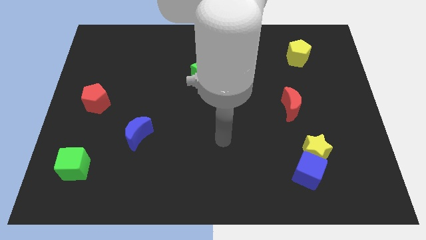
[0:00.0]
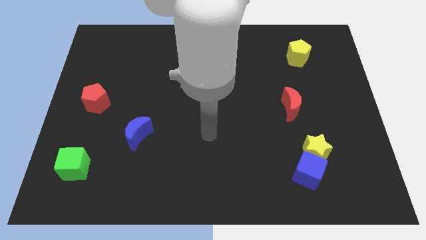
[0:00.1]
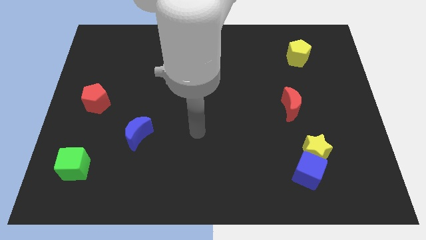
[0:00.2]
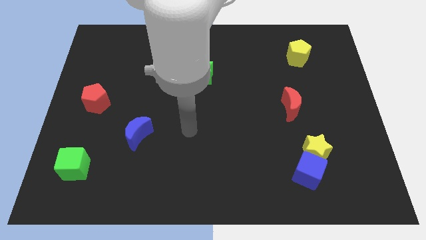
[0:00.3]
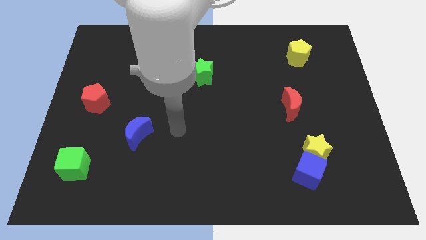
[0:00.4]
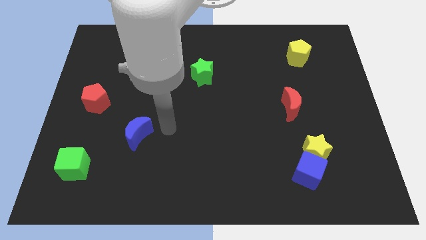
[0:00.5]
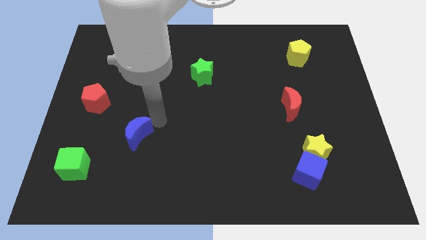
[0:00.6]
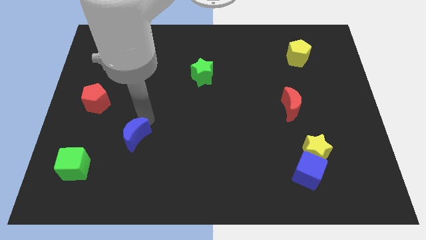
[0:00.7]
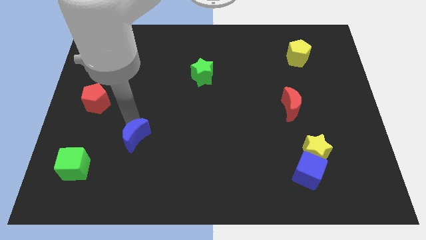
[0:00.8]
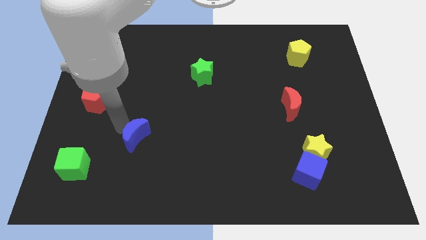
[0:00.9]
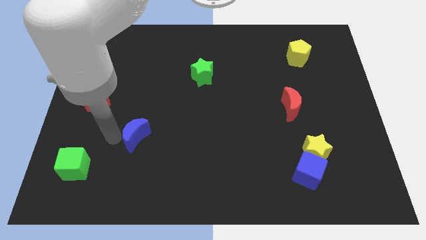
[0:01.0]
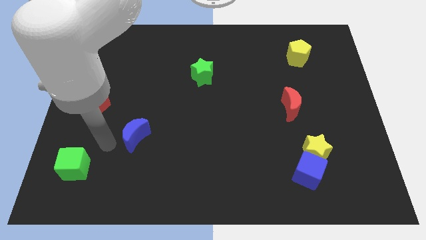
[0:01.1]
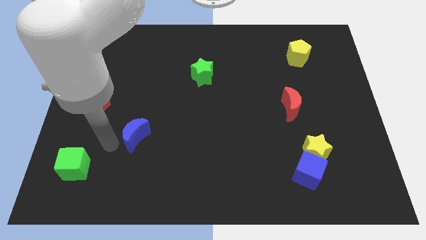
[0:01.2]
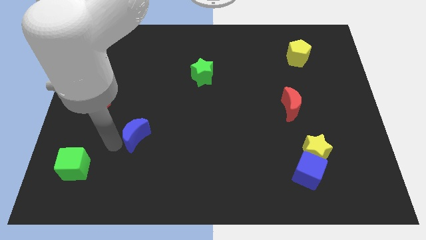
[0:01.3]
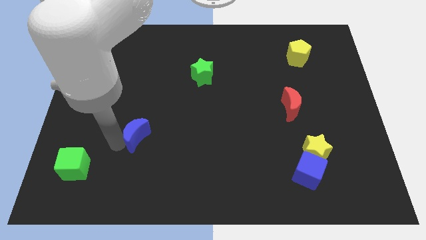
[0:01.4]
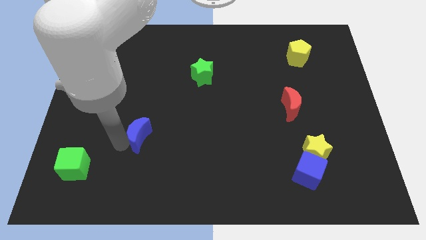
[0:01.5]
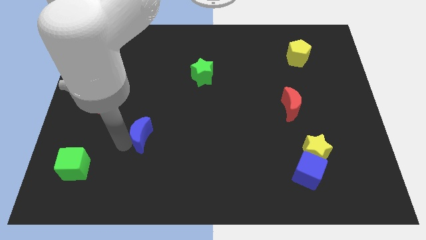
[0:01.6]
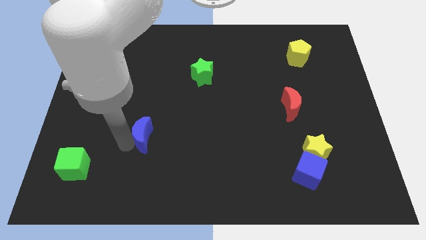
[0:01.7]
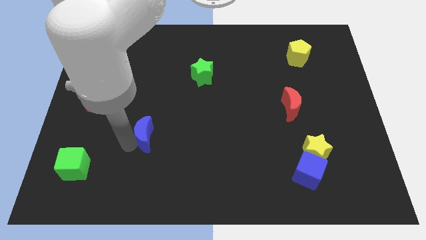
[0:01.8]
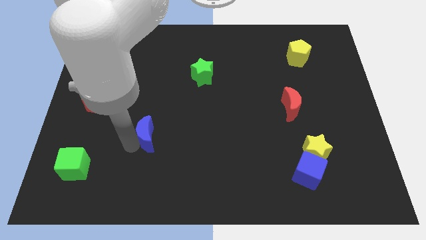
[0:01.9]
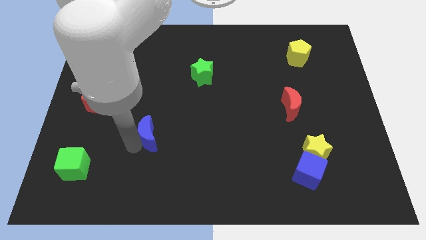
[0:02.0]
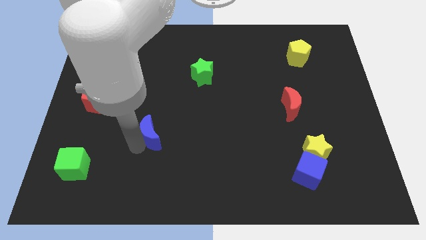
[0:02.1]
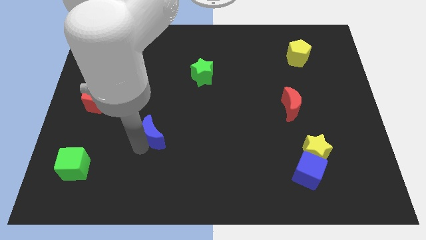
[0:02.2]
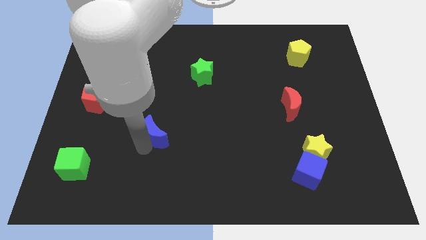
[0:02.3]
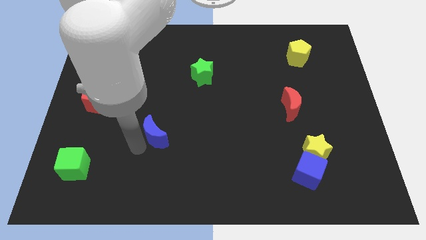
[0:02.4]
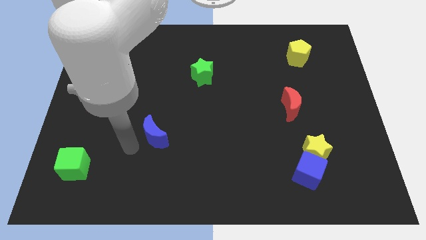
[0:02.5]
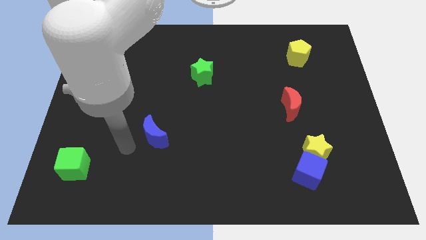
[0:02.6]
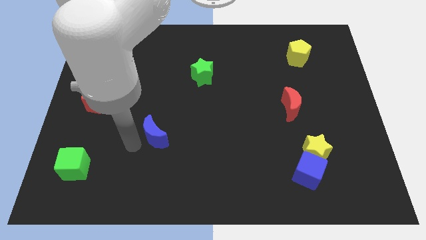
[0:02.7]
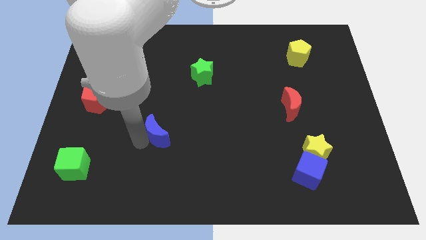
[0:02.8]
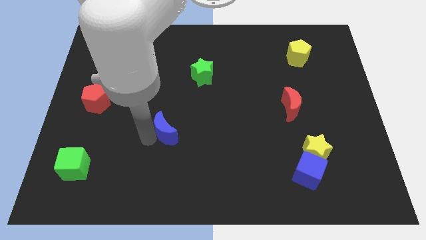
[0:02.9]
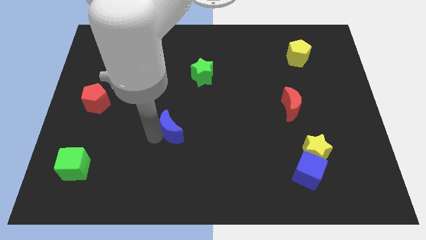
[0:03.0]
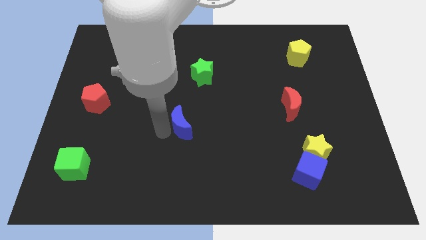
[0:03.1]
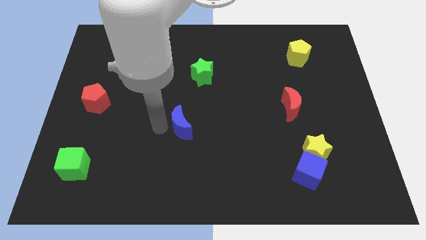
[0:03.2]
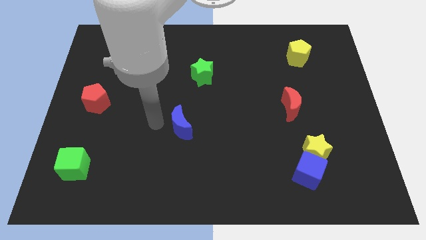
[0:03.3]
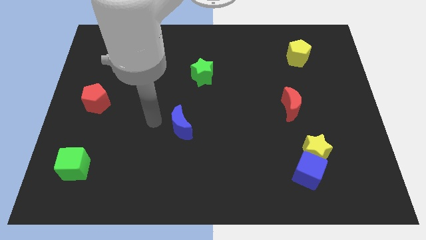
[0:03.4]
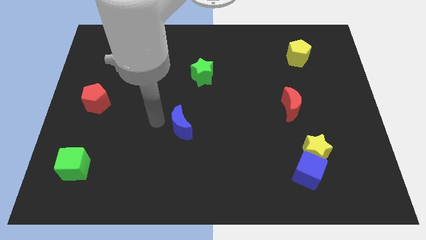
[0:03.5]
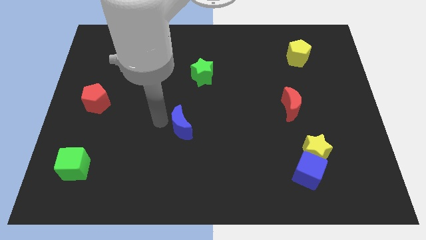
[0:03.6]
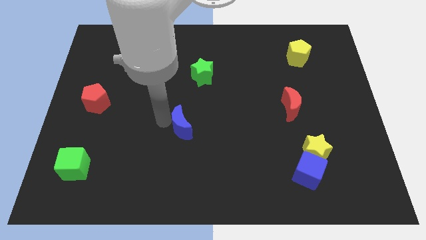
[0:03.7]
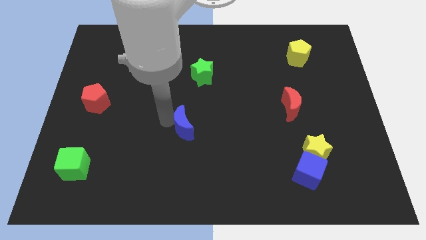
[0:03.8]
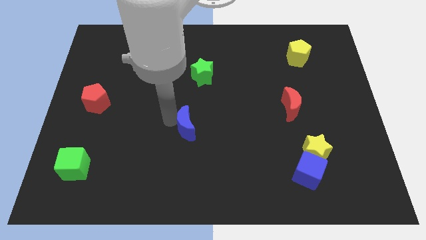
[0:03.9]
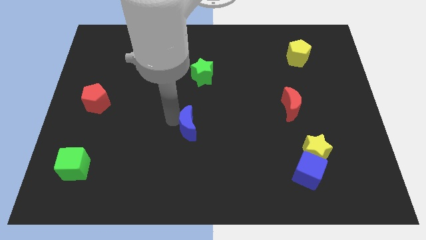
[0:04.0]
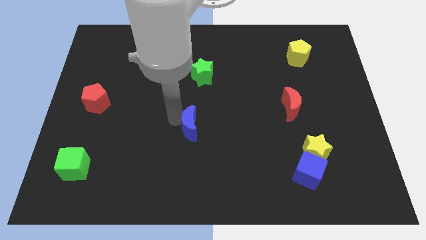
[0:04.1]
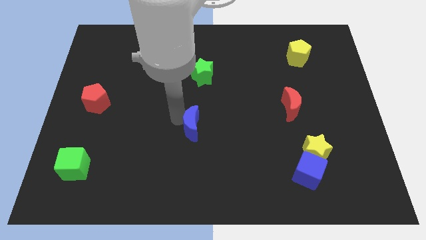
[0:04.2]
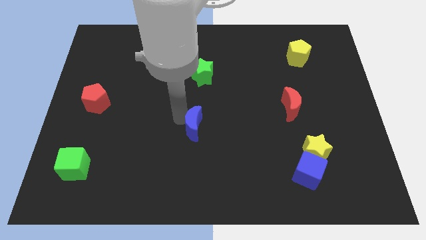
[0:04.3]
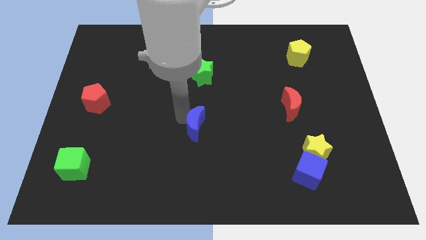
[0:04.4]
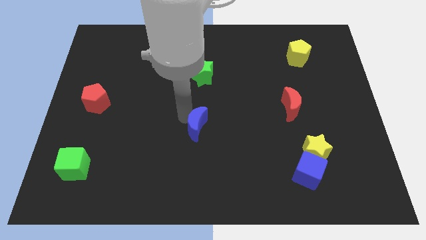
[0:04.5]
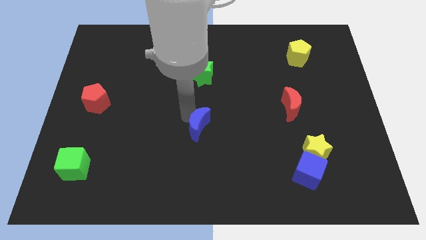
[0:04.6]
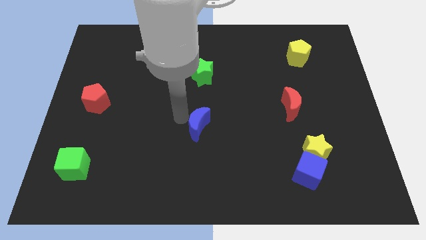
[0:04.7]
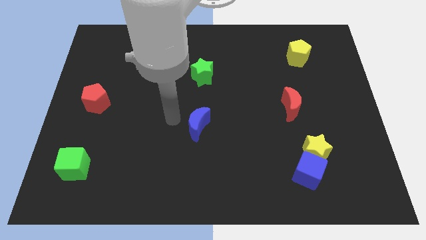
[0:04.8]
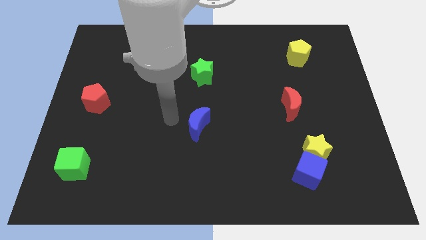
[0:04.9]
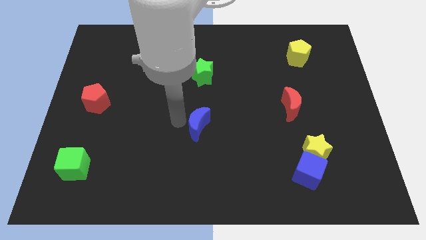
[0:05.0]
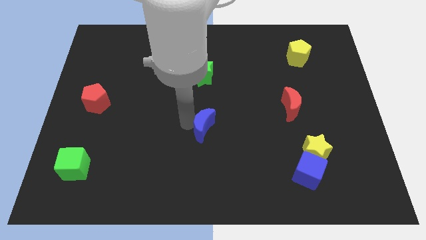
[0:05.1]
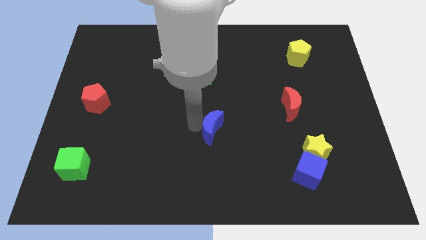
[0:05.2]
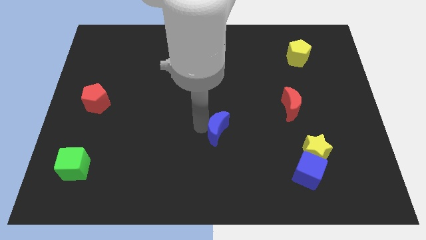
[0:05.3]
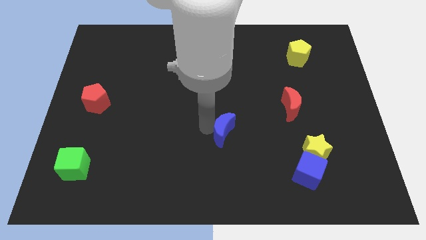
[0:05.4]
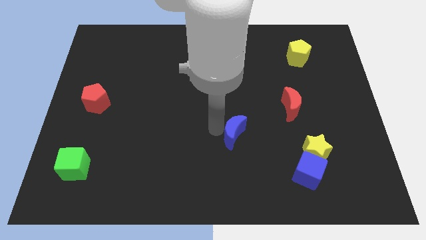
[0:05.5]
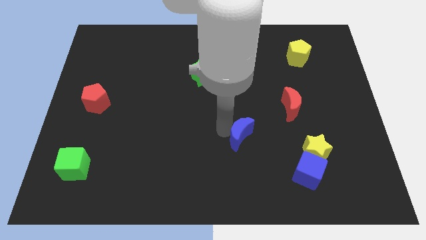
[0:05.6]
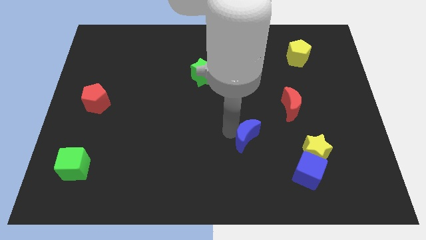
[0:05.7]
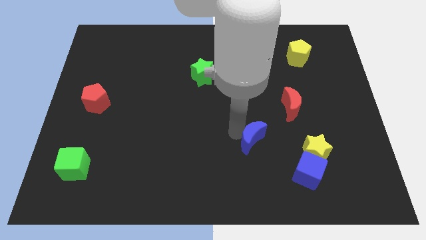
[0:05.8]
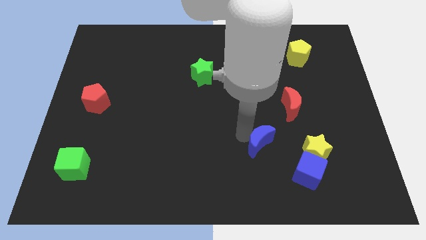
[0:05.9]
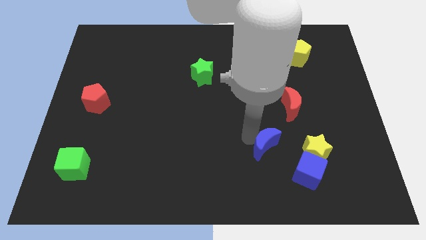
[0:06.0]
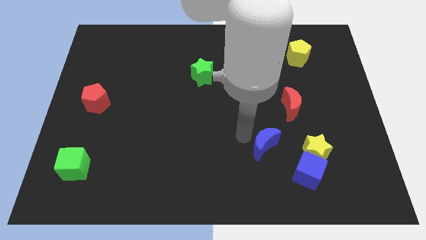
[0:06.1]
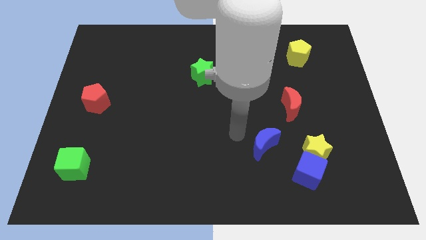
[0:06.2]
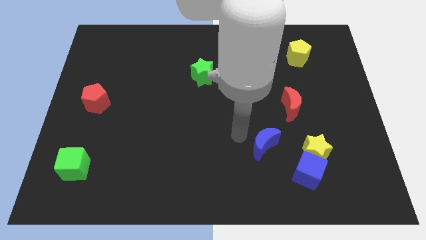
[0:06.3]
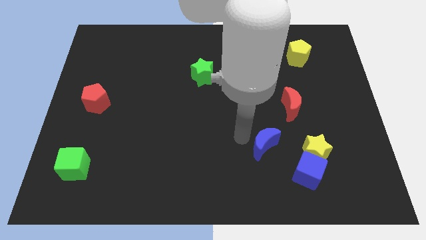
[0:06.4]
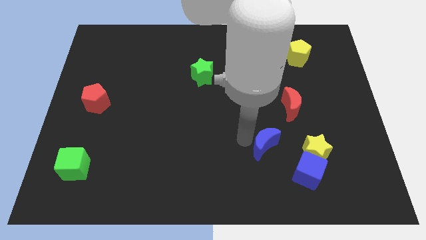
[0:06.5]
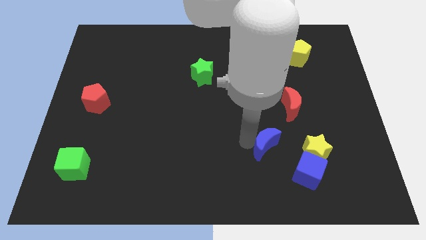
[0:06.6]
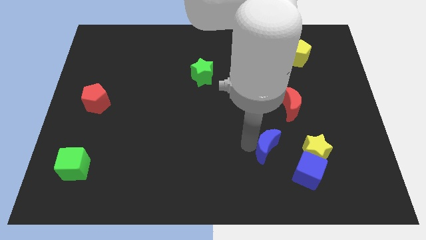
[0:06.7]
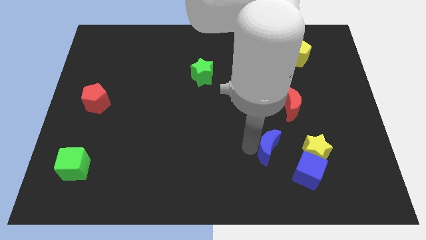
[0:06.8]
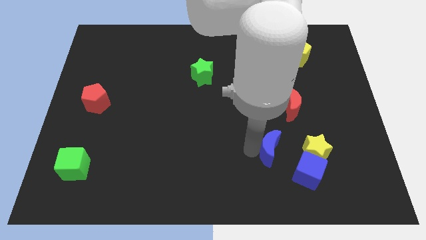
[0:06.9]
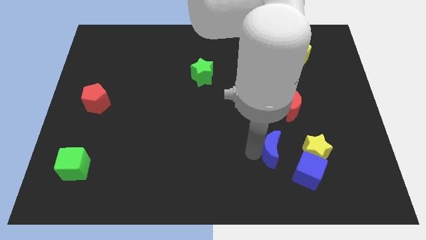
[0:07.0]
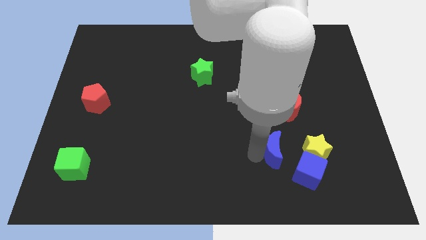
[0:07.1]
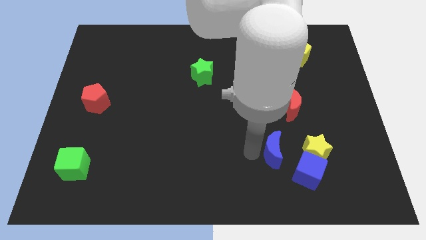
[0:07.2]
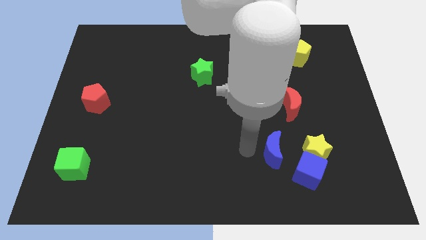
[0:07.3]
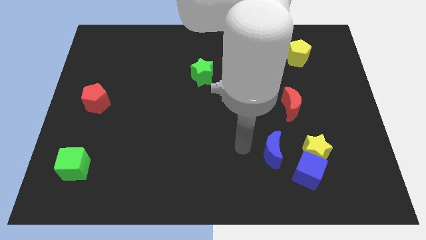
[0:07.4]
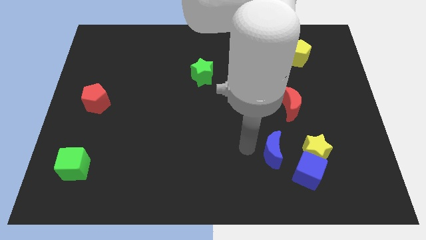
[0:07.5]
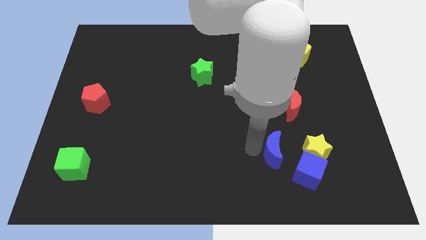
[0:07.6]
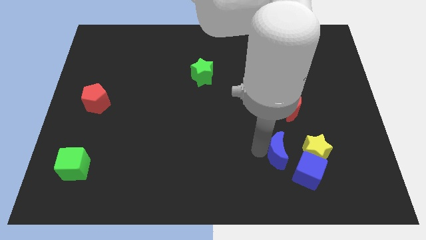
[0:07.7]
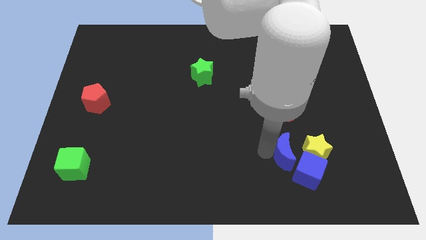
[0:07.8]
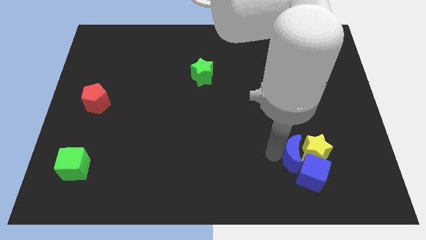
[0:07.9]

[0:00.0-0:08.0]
push the blue moon towards the yellow star
